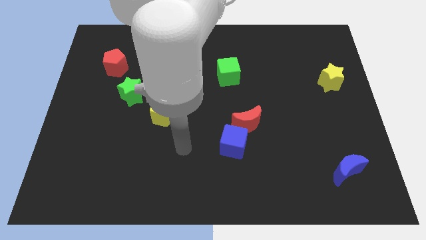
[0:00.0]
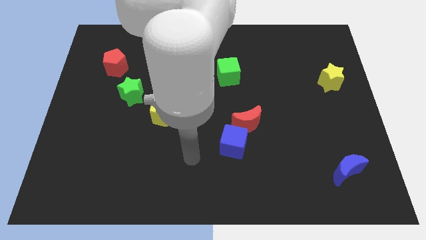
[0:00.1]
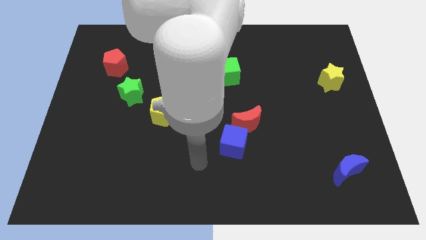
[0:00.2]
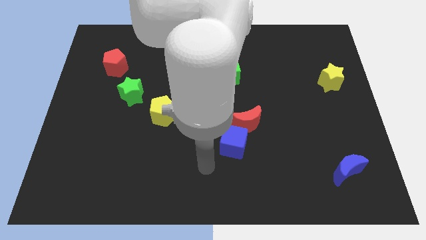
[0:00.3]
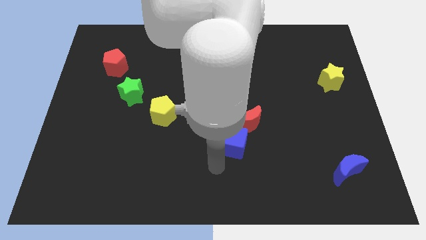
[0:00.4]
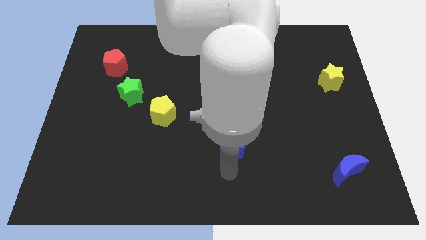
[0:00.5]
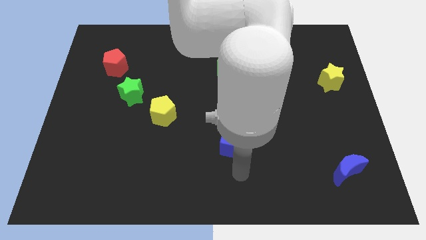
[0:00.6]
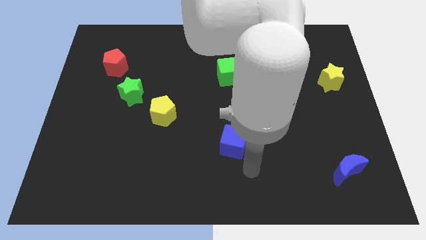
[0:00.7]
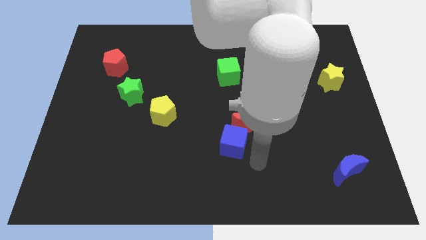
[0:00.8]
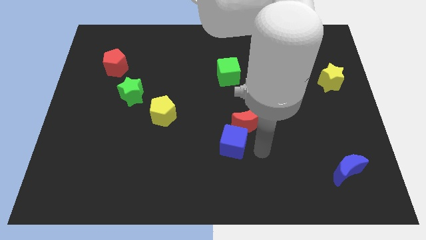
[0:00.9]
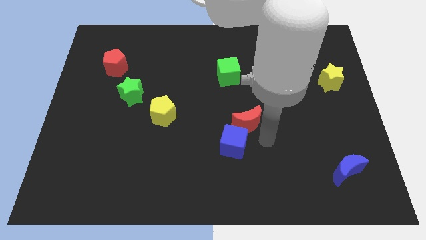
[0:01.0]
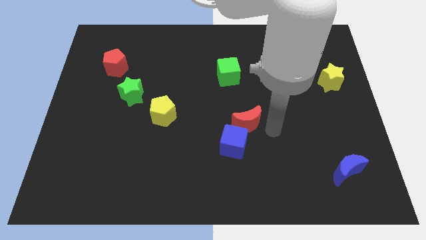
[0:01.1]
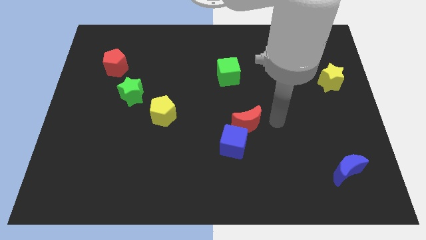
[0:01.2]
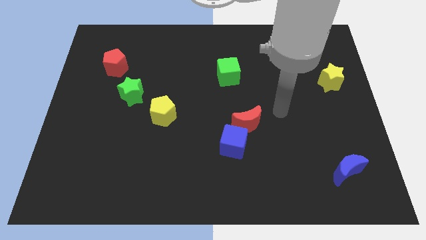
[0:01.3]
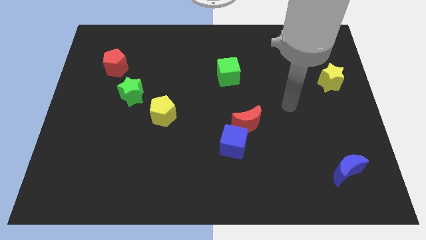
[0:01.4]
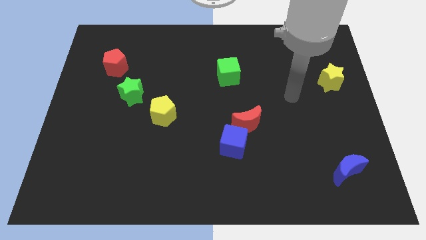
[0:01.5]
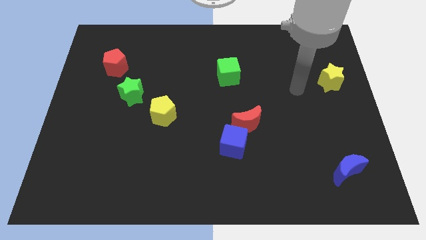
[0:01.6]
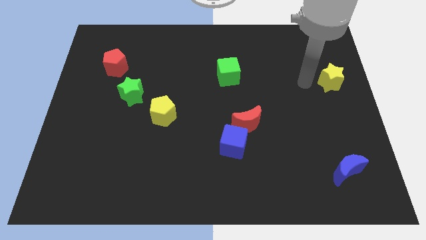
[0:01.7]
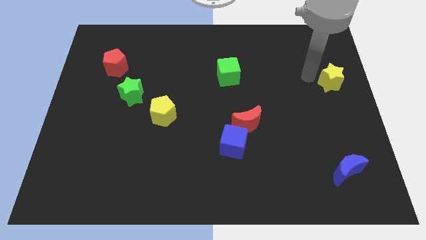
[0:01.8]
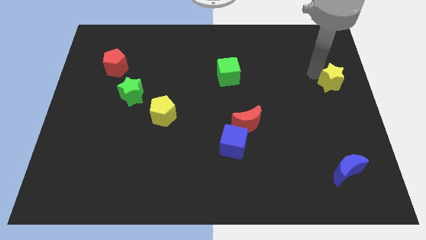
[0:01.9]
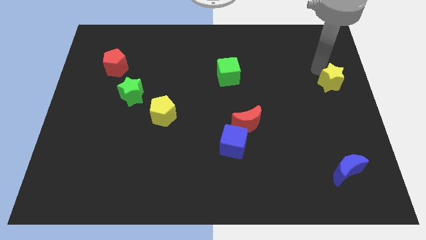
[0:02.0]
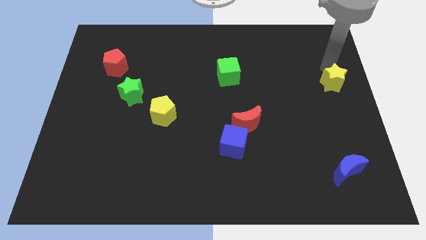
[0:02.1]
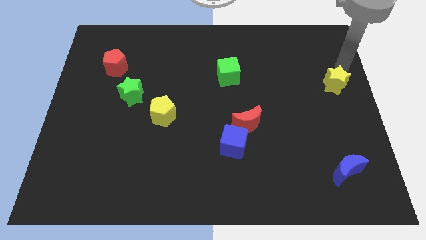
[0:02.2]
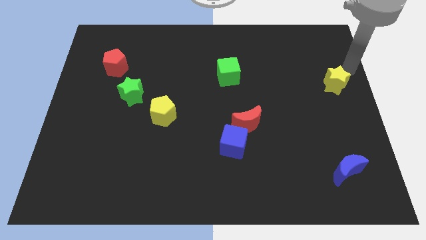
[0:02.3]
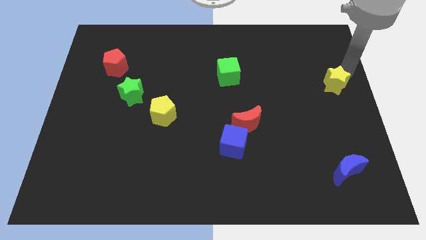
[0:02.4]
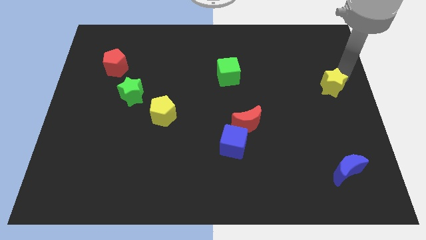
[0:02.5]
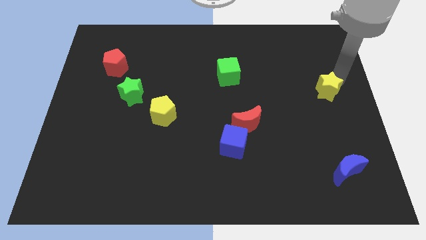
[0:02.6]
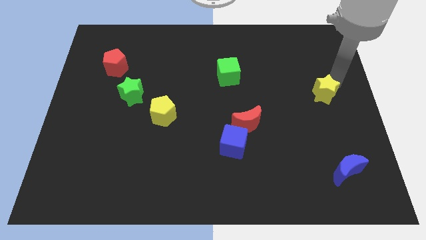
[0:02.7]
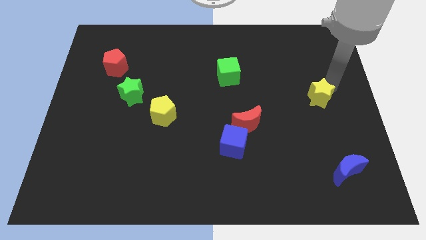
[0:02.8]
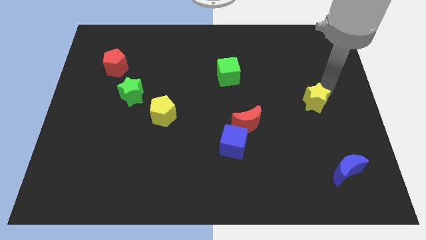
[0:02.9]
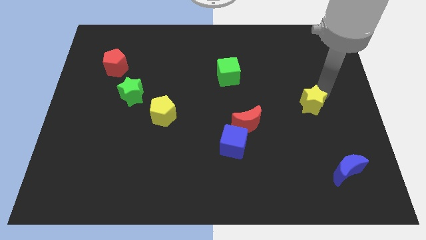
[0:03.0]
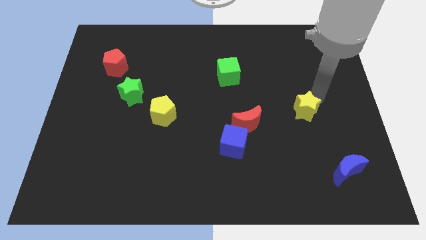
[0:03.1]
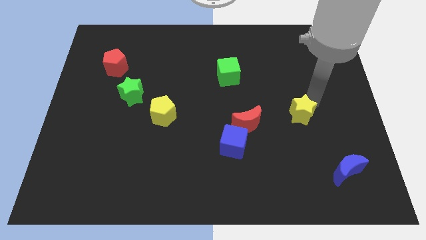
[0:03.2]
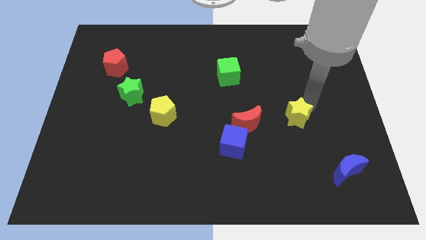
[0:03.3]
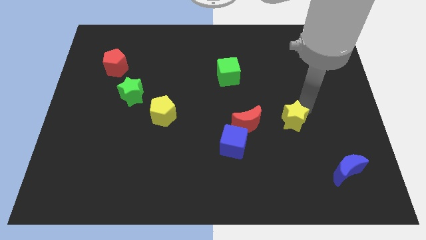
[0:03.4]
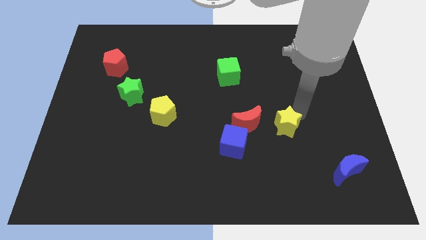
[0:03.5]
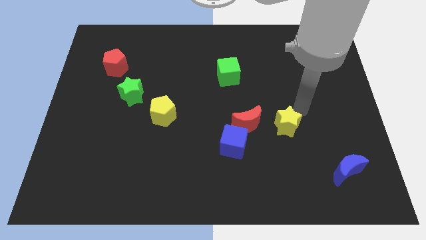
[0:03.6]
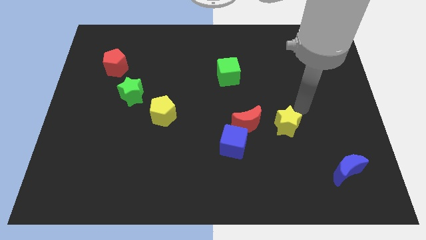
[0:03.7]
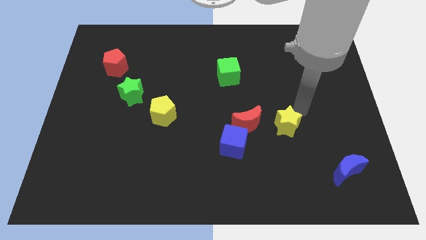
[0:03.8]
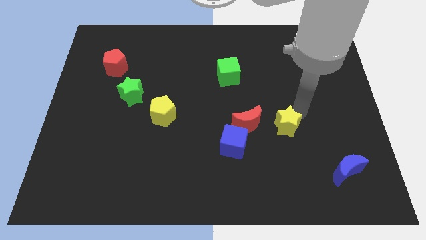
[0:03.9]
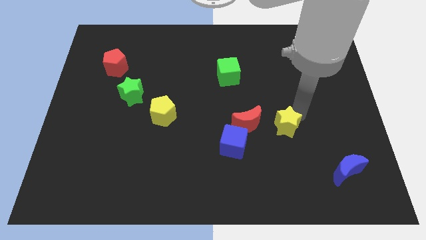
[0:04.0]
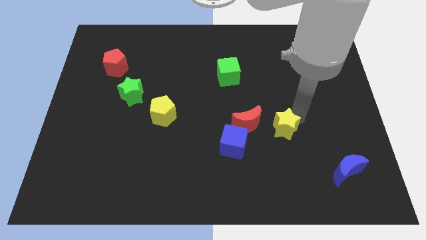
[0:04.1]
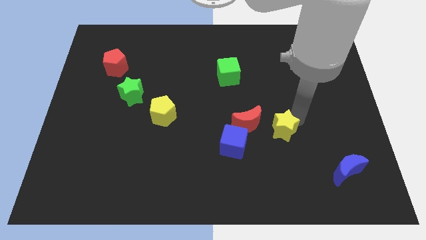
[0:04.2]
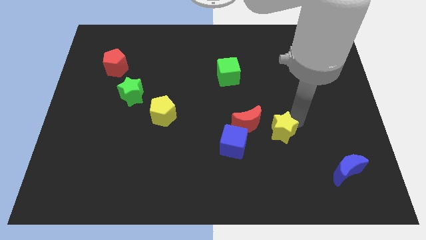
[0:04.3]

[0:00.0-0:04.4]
move the yellow star down and to the left

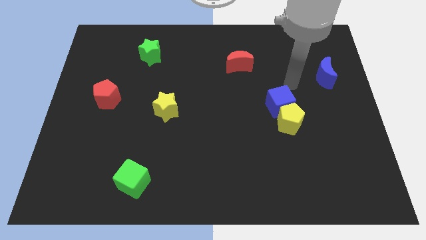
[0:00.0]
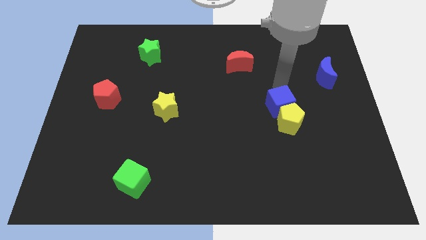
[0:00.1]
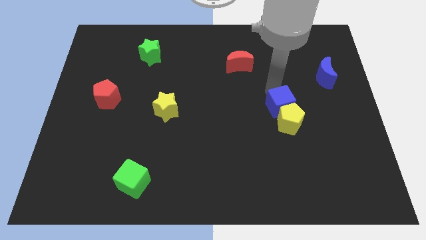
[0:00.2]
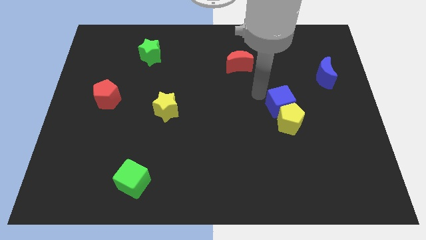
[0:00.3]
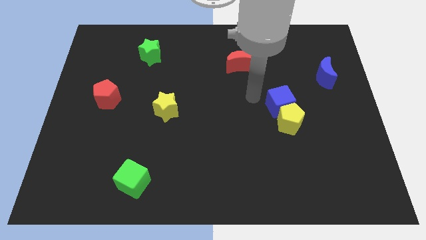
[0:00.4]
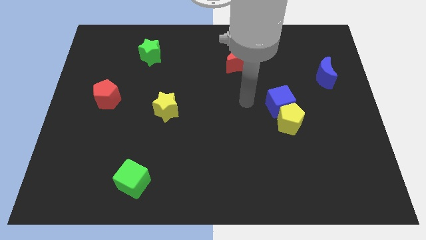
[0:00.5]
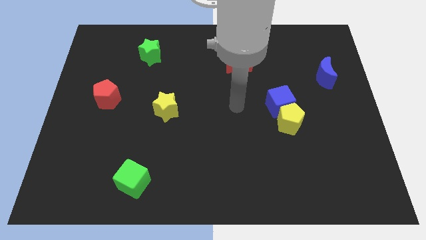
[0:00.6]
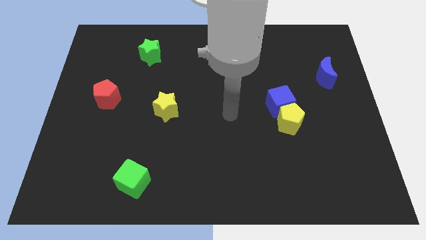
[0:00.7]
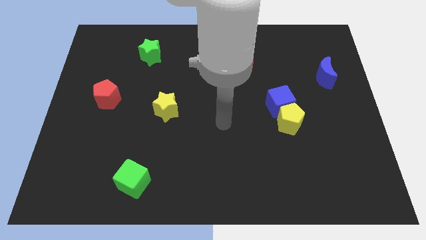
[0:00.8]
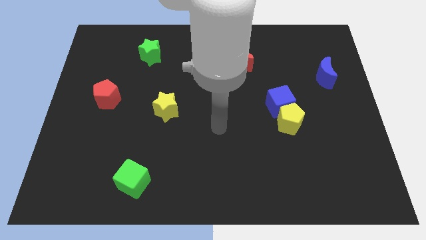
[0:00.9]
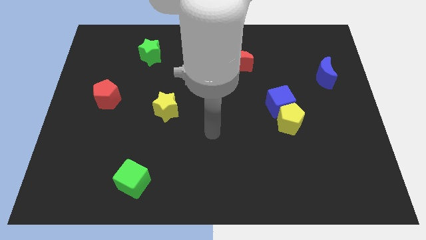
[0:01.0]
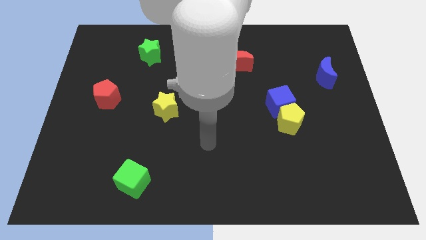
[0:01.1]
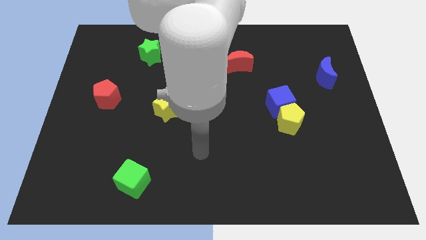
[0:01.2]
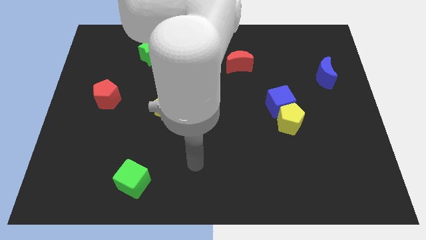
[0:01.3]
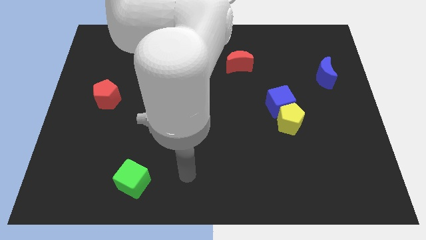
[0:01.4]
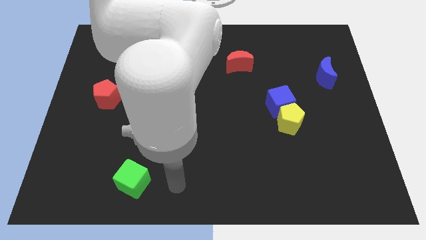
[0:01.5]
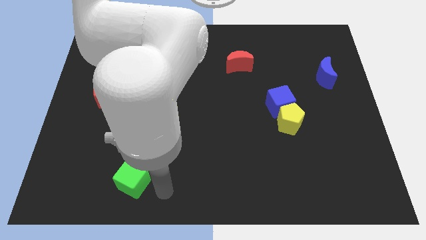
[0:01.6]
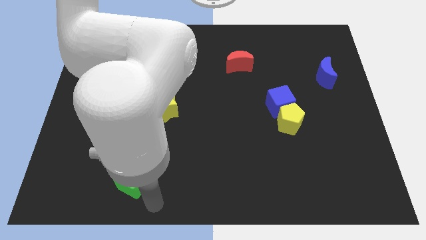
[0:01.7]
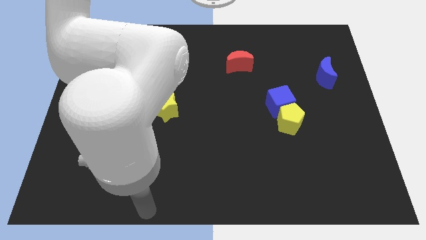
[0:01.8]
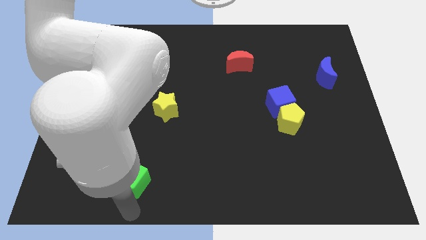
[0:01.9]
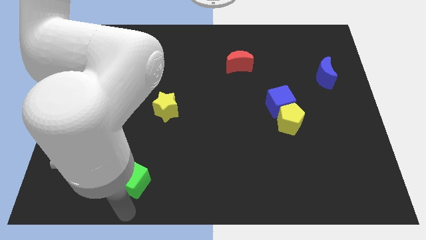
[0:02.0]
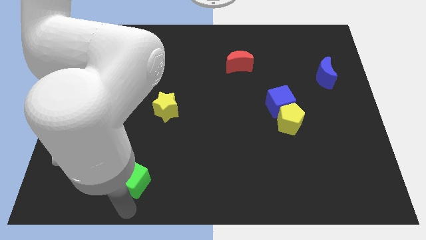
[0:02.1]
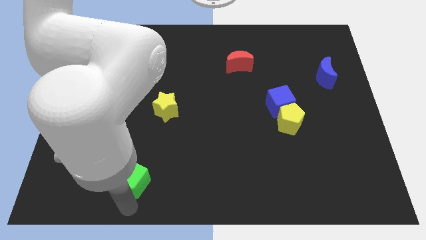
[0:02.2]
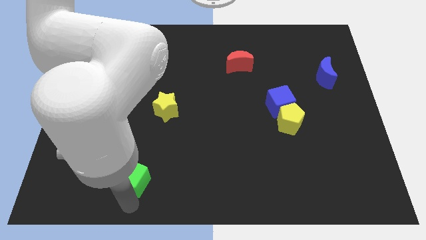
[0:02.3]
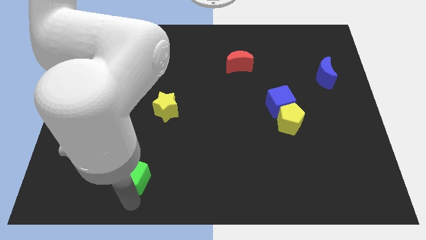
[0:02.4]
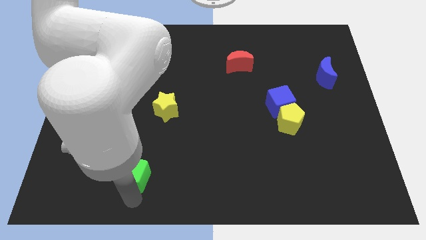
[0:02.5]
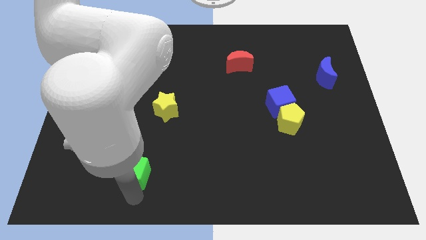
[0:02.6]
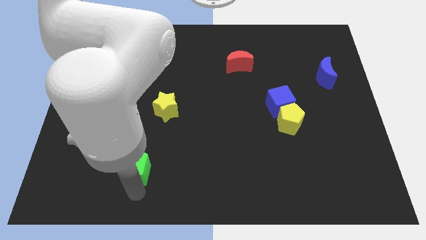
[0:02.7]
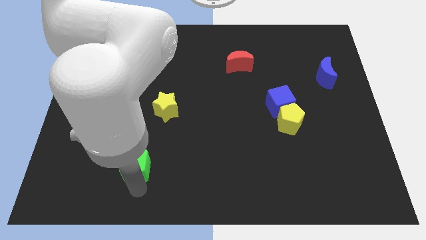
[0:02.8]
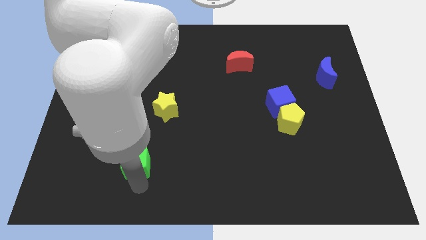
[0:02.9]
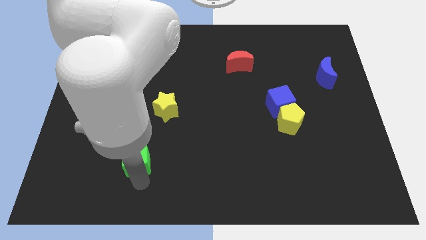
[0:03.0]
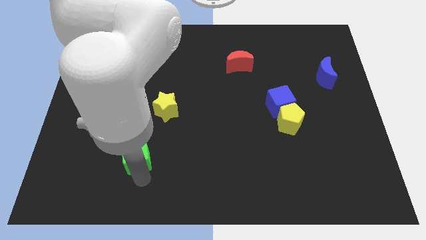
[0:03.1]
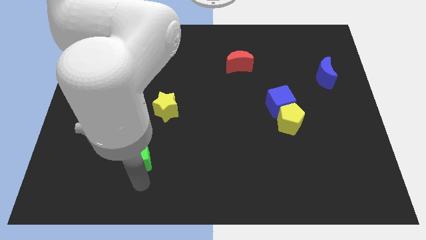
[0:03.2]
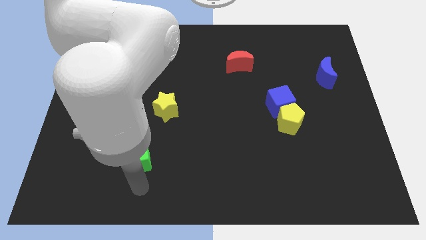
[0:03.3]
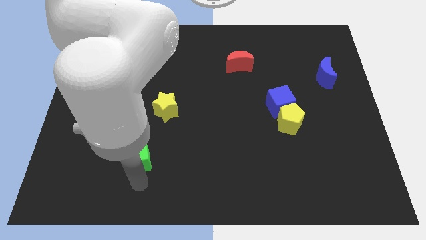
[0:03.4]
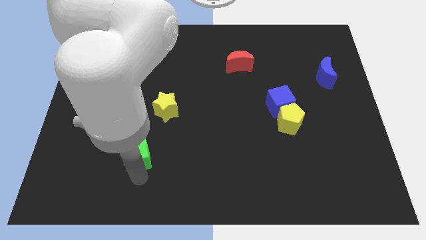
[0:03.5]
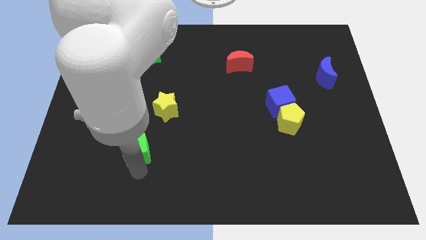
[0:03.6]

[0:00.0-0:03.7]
slide the green cube a little up
